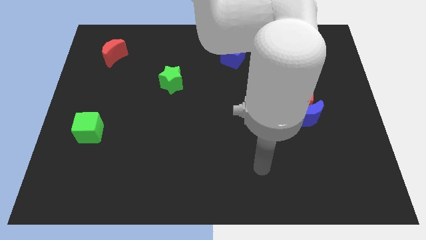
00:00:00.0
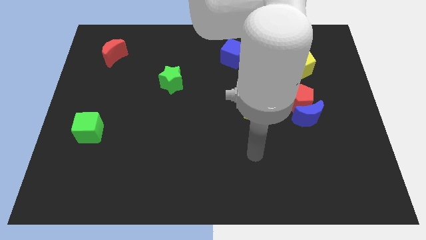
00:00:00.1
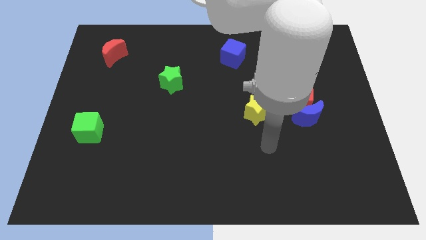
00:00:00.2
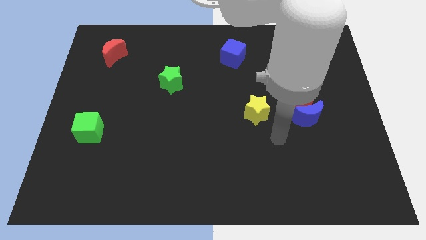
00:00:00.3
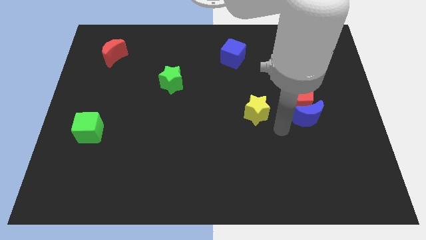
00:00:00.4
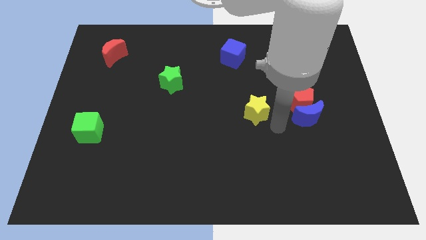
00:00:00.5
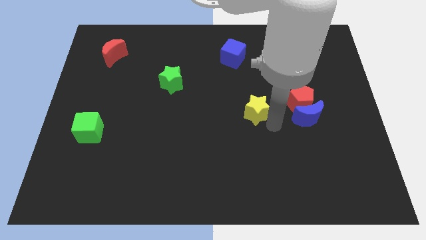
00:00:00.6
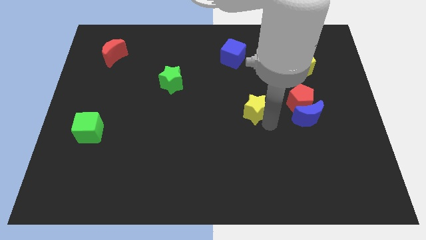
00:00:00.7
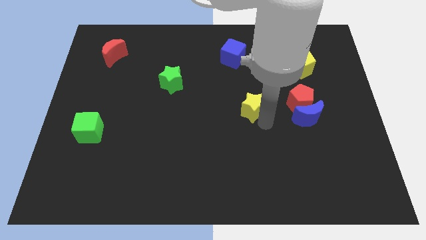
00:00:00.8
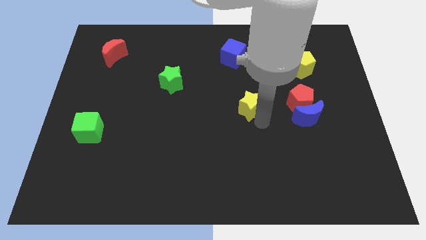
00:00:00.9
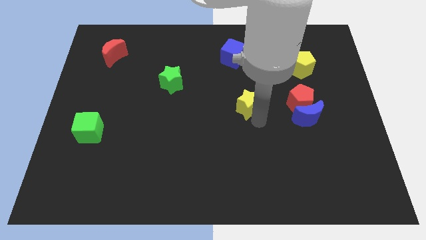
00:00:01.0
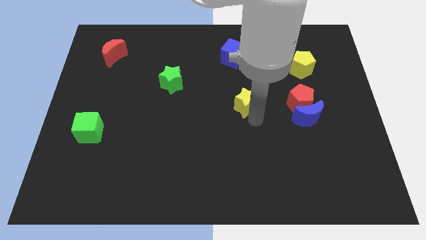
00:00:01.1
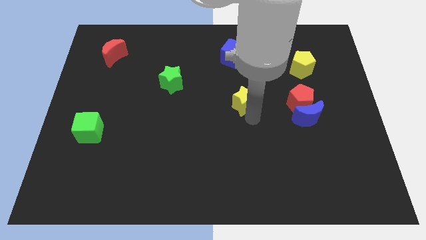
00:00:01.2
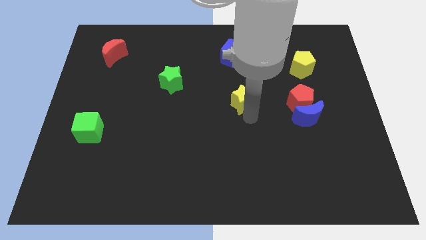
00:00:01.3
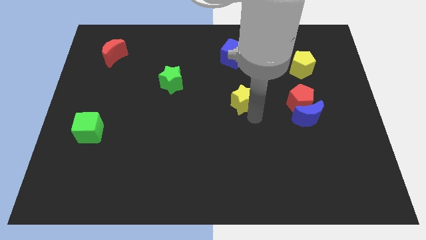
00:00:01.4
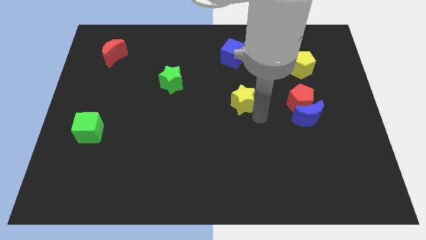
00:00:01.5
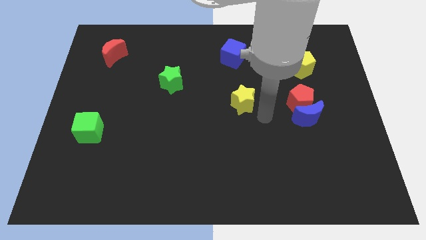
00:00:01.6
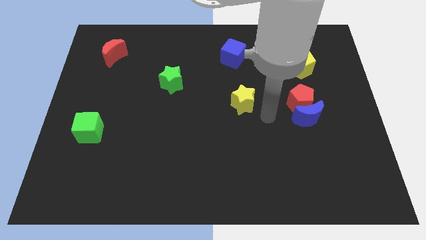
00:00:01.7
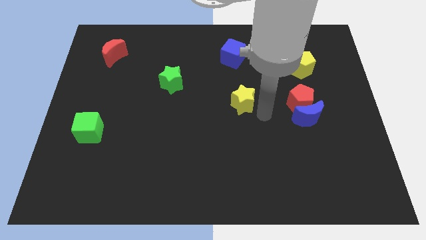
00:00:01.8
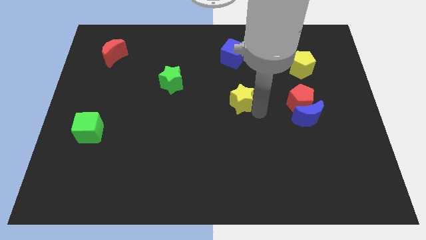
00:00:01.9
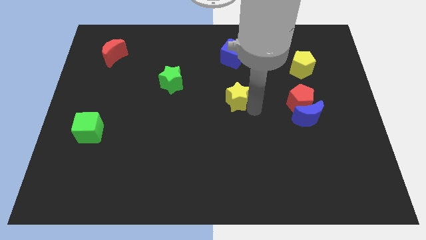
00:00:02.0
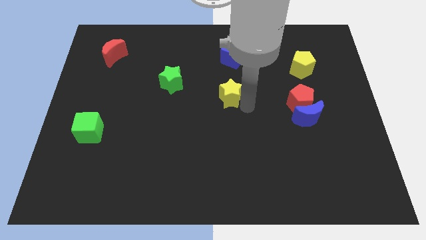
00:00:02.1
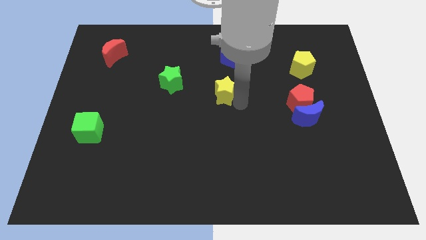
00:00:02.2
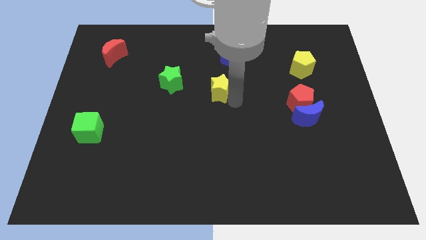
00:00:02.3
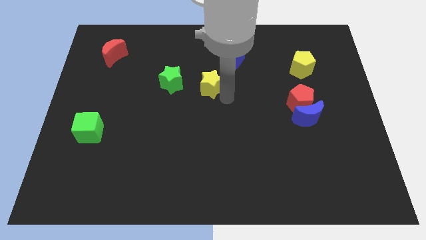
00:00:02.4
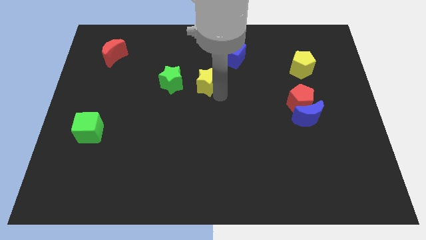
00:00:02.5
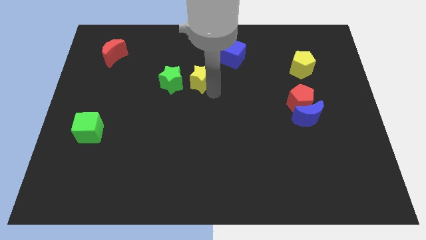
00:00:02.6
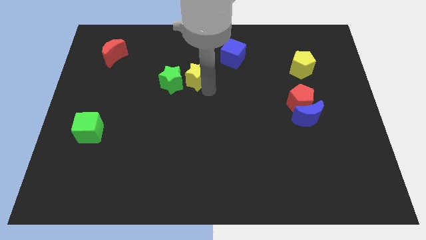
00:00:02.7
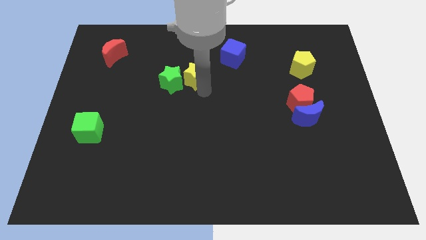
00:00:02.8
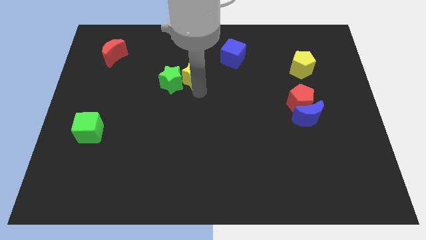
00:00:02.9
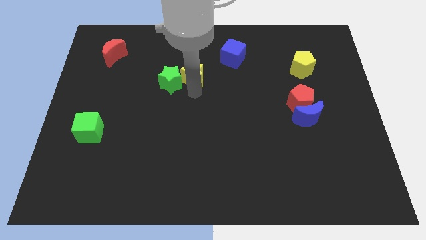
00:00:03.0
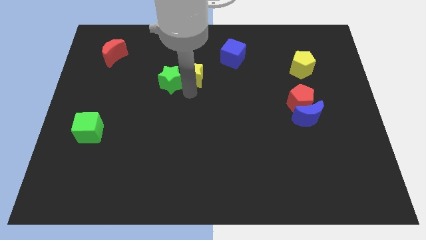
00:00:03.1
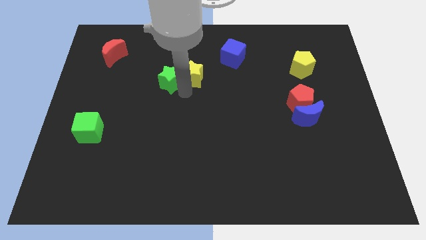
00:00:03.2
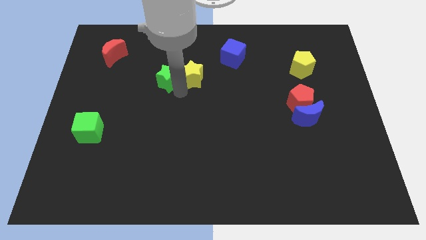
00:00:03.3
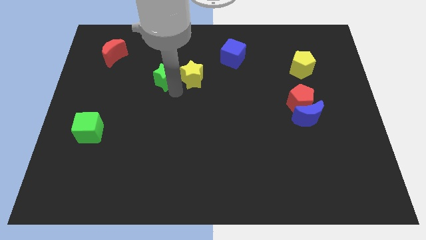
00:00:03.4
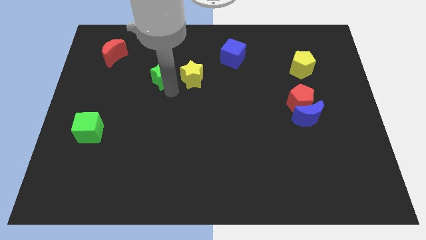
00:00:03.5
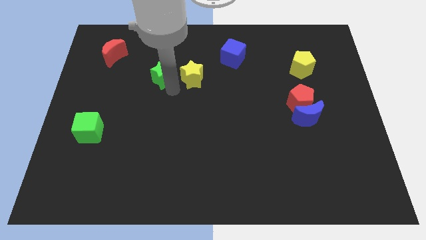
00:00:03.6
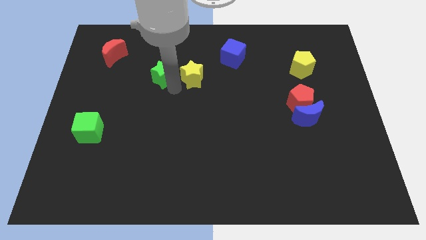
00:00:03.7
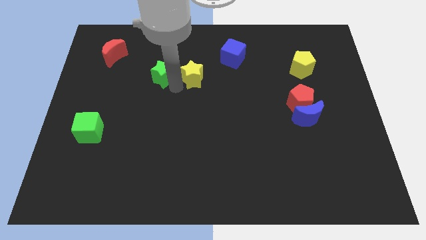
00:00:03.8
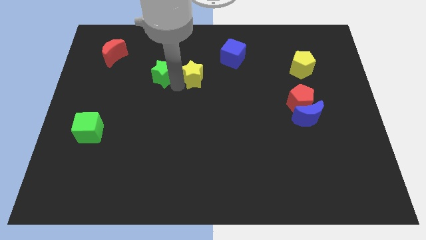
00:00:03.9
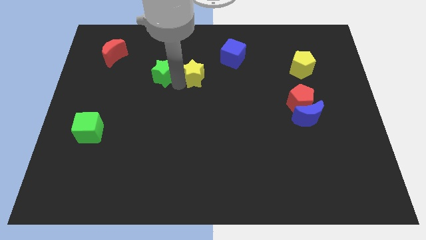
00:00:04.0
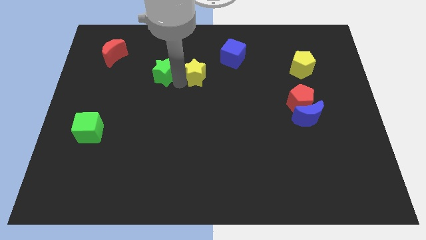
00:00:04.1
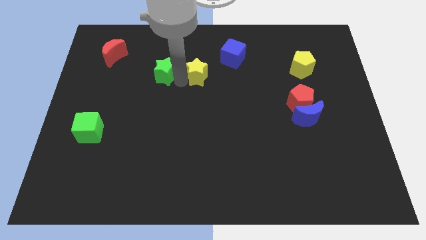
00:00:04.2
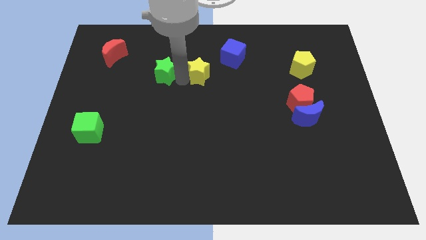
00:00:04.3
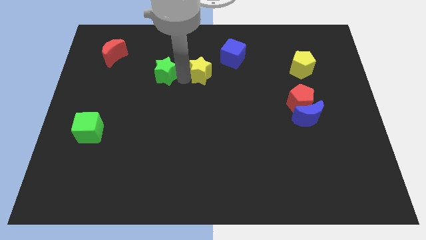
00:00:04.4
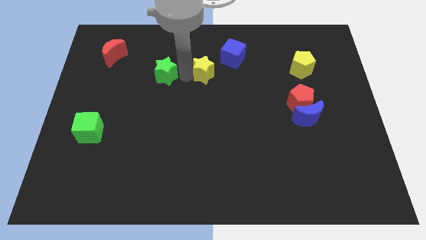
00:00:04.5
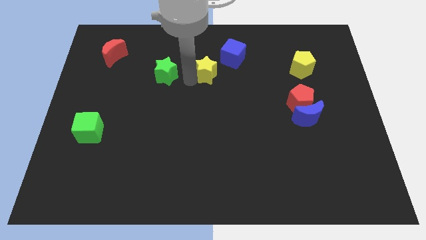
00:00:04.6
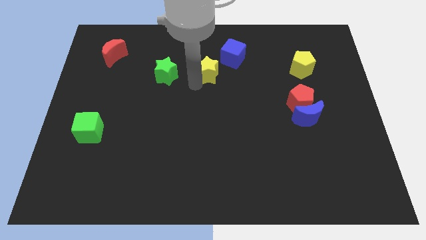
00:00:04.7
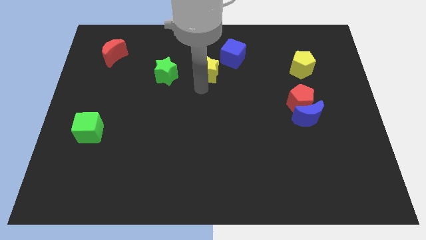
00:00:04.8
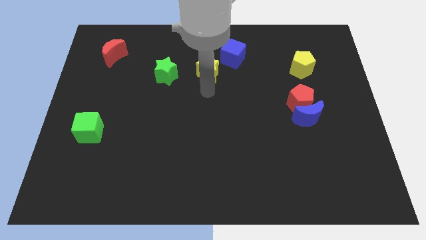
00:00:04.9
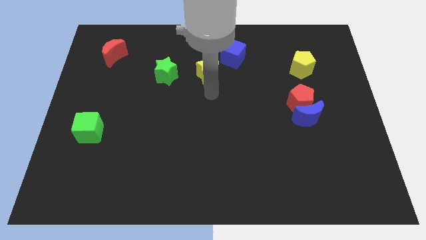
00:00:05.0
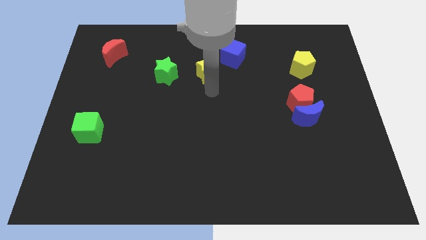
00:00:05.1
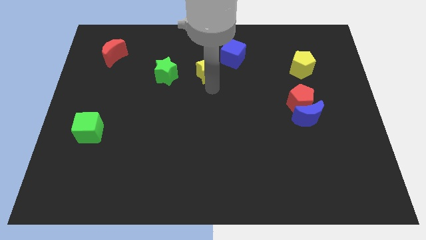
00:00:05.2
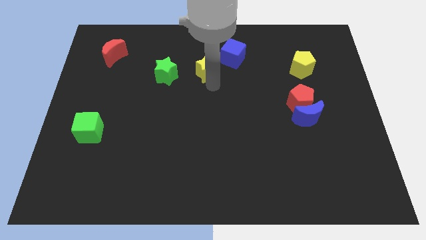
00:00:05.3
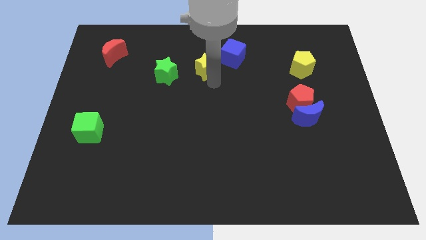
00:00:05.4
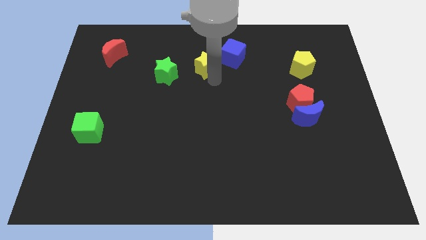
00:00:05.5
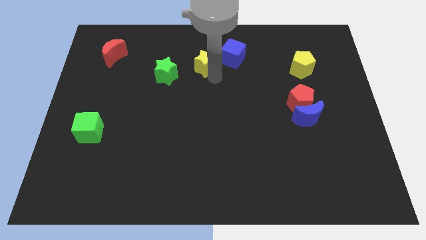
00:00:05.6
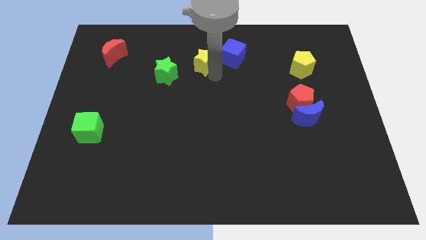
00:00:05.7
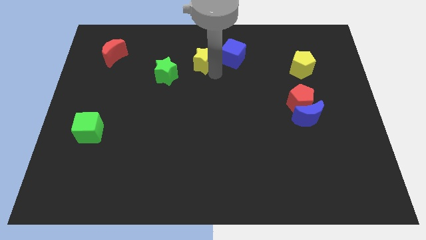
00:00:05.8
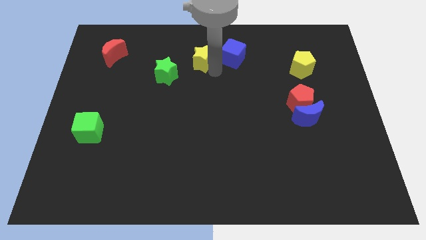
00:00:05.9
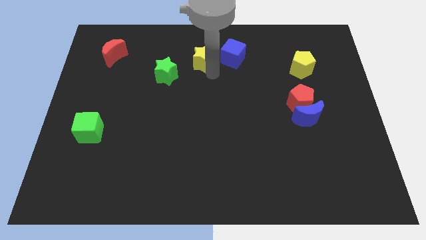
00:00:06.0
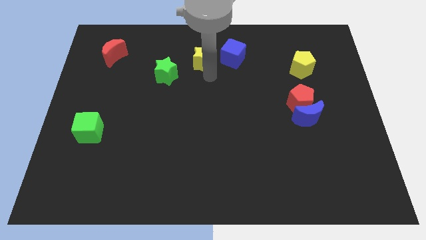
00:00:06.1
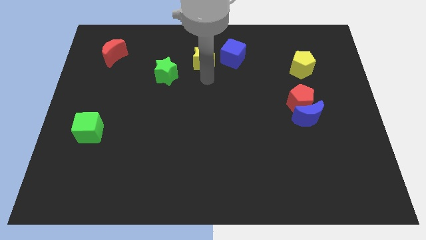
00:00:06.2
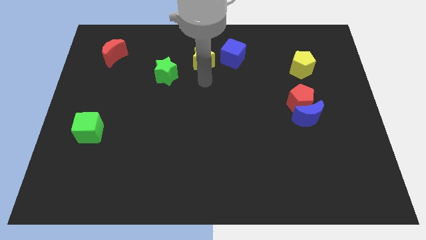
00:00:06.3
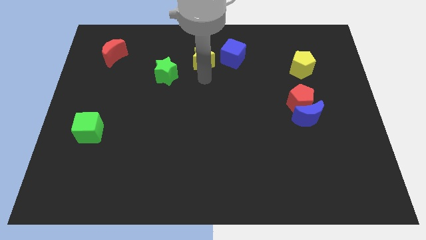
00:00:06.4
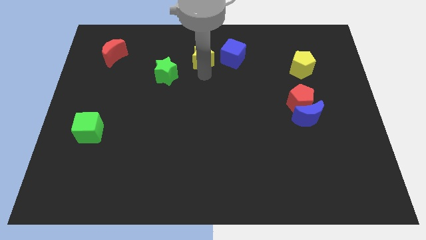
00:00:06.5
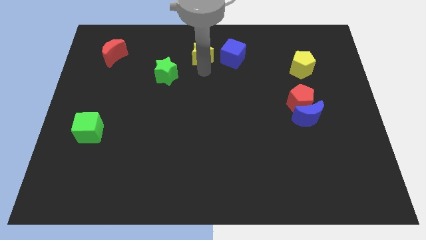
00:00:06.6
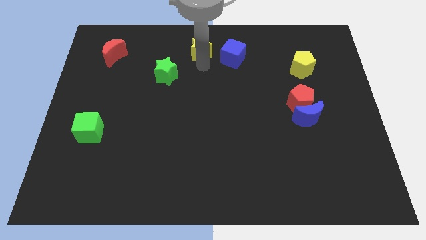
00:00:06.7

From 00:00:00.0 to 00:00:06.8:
put the yellow star to the top side
